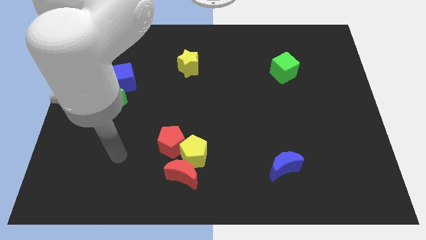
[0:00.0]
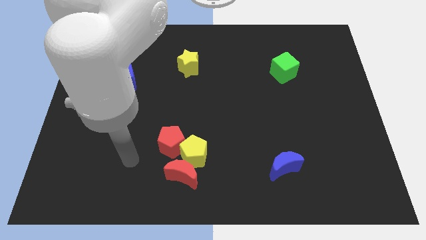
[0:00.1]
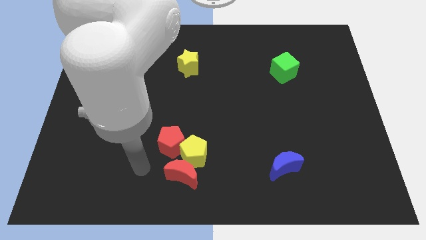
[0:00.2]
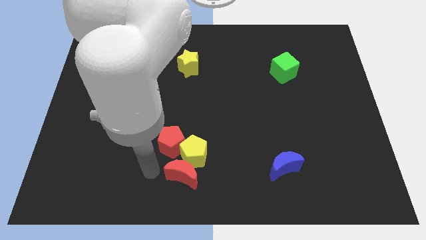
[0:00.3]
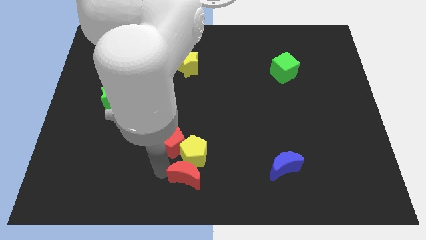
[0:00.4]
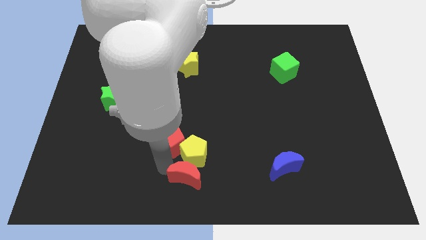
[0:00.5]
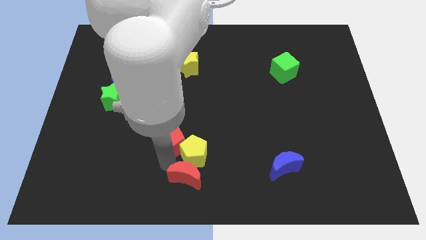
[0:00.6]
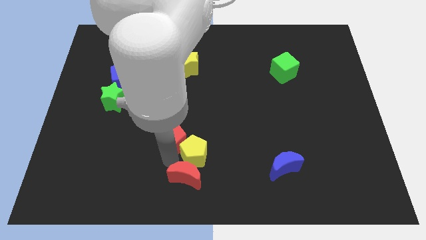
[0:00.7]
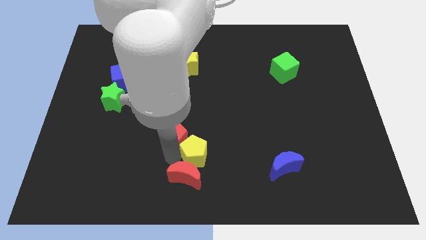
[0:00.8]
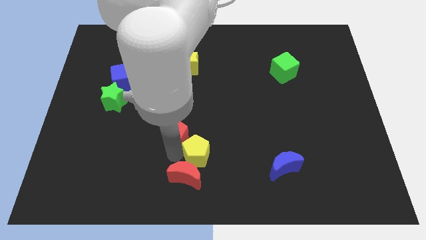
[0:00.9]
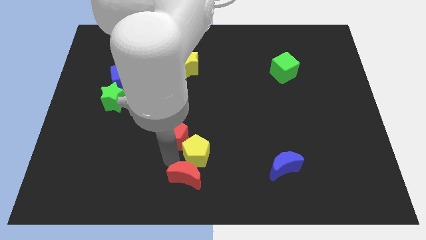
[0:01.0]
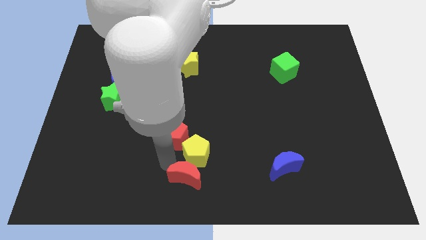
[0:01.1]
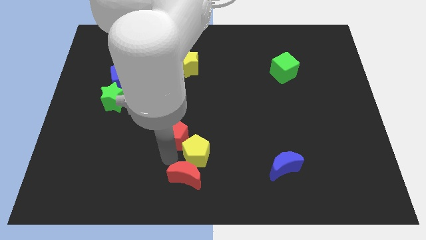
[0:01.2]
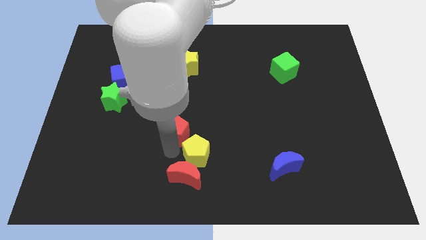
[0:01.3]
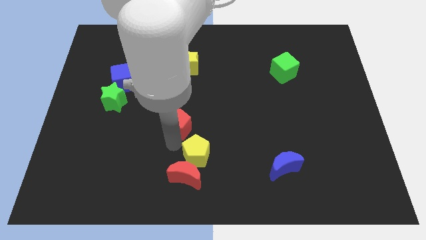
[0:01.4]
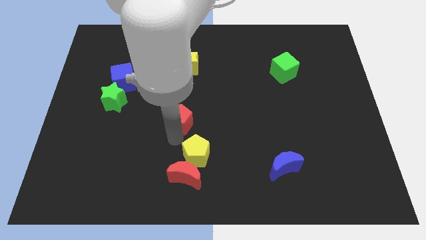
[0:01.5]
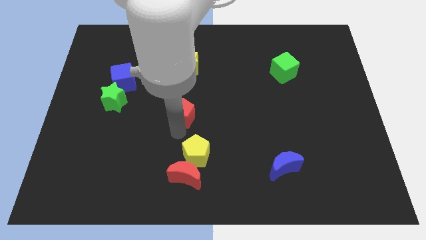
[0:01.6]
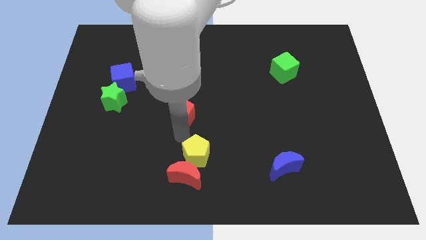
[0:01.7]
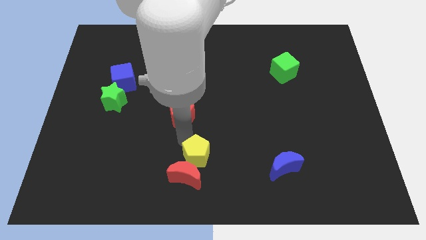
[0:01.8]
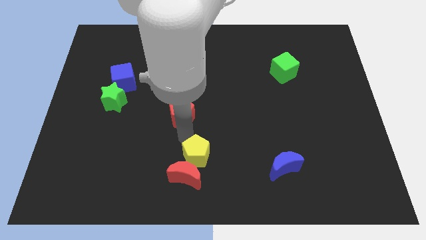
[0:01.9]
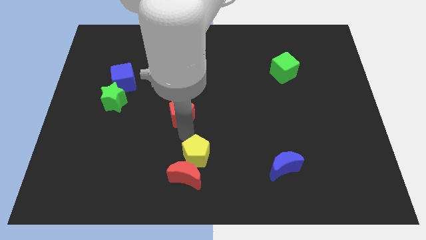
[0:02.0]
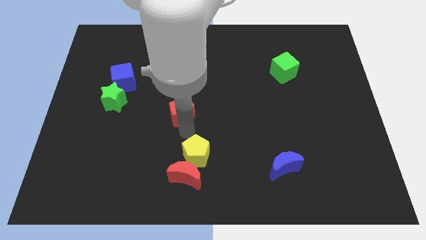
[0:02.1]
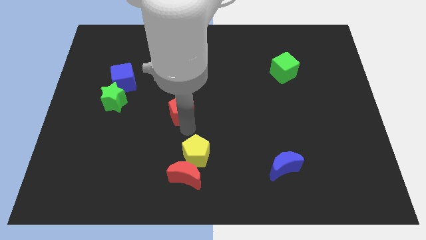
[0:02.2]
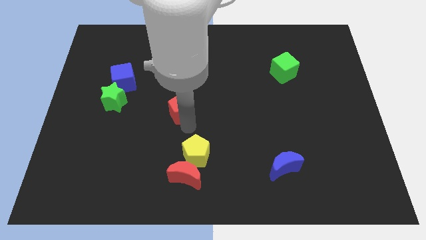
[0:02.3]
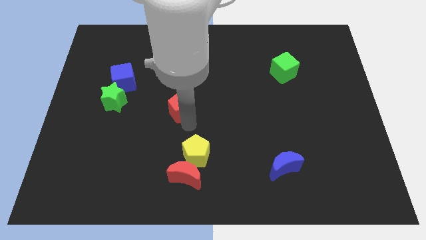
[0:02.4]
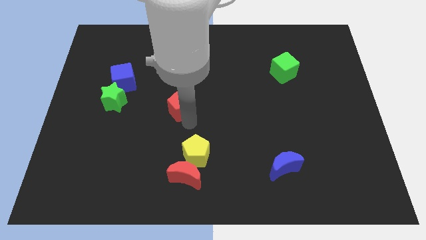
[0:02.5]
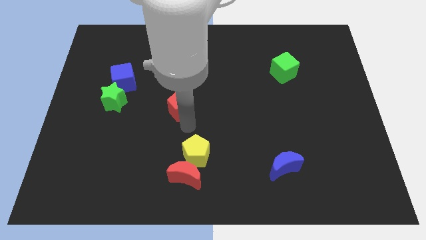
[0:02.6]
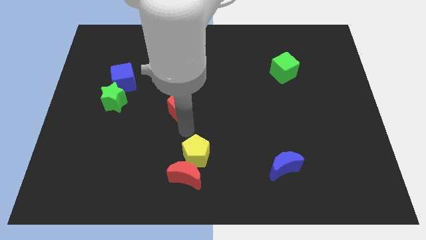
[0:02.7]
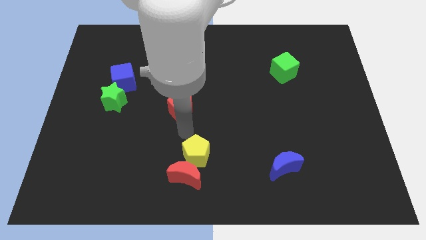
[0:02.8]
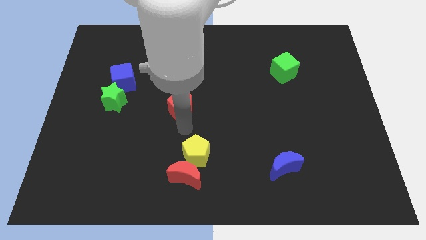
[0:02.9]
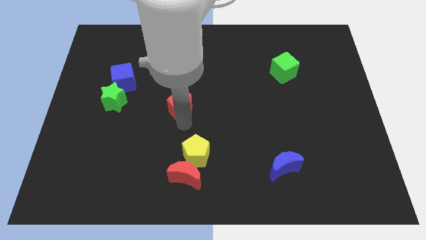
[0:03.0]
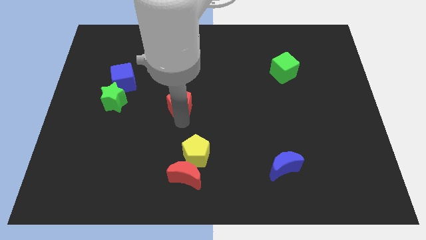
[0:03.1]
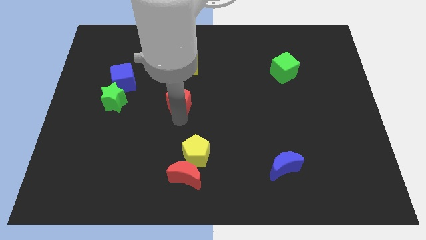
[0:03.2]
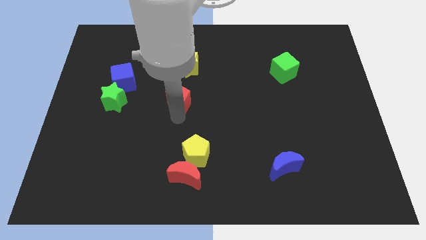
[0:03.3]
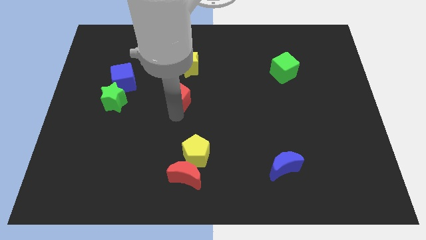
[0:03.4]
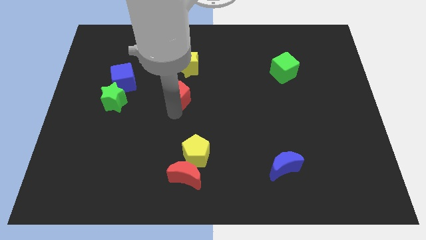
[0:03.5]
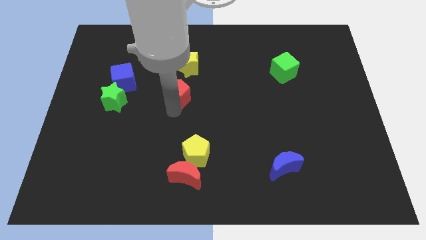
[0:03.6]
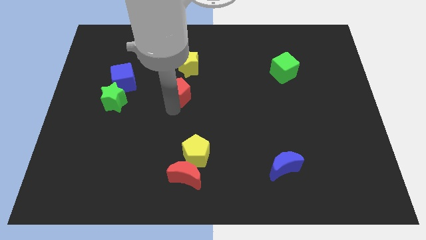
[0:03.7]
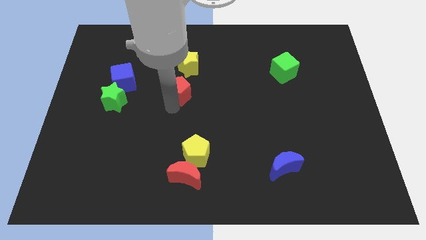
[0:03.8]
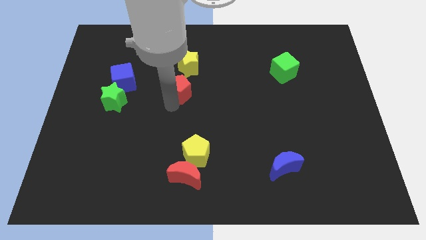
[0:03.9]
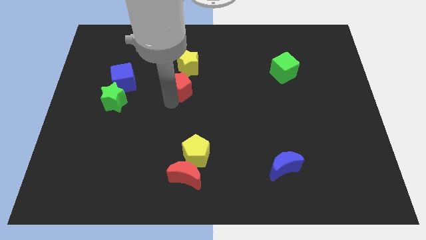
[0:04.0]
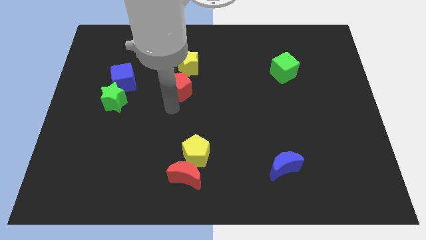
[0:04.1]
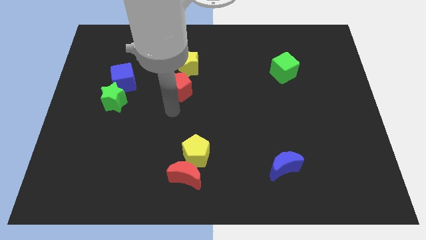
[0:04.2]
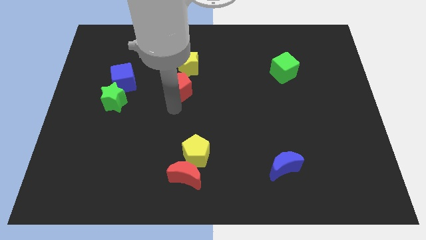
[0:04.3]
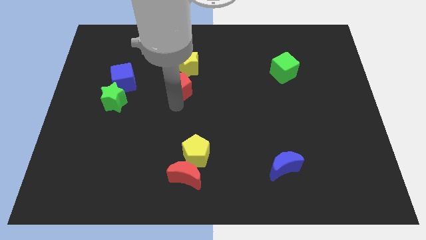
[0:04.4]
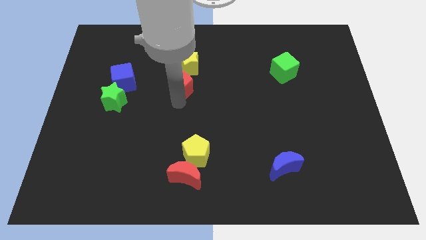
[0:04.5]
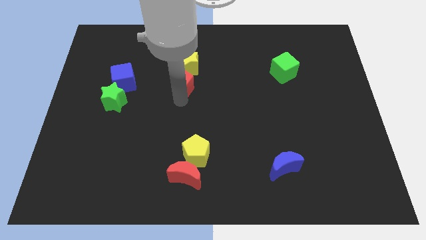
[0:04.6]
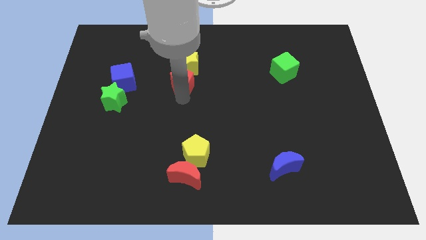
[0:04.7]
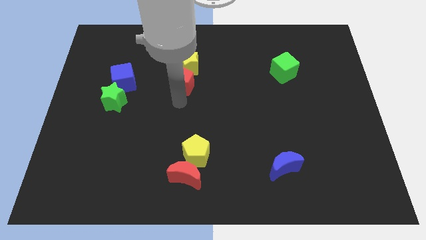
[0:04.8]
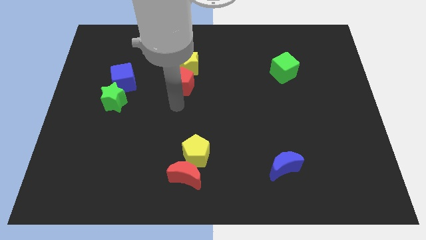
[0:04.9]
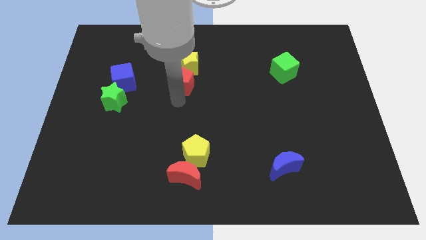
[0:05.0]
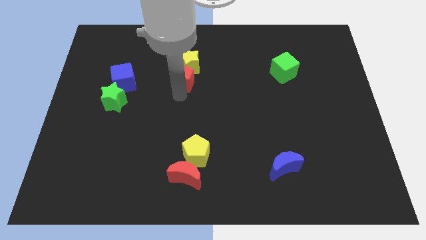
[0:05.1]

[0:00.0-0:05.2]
put the red pentagon to the yellow star

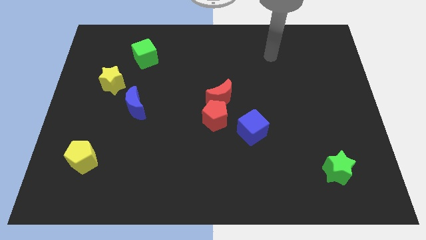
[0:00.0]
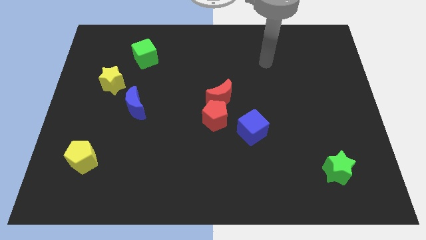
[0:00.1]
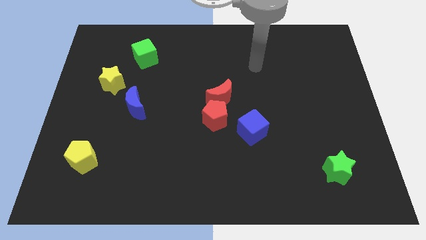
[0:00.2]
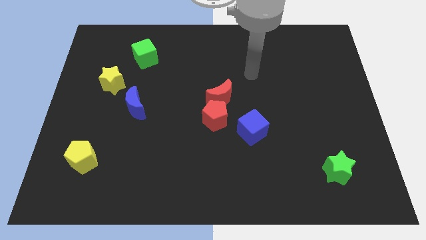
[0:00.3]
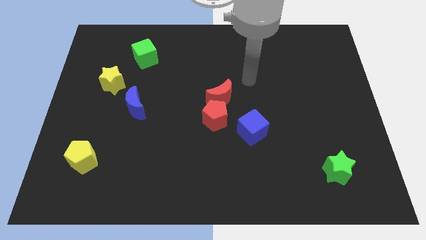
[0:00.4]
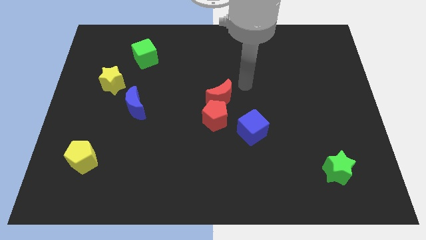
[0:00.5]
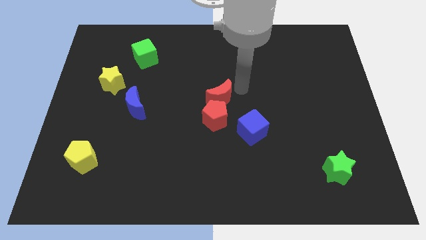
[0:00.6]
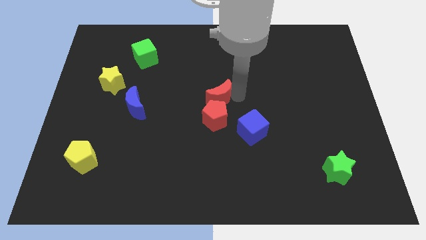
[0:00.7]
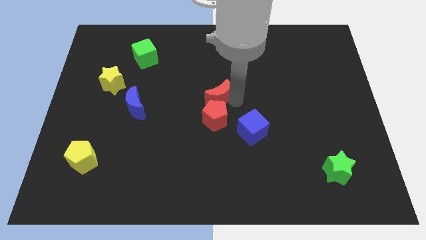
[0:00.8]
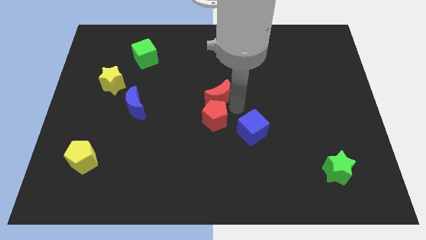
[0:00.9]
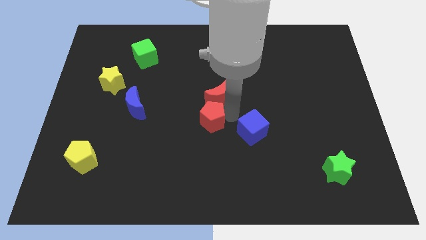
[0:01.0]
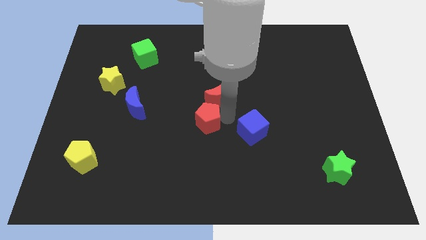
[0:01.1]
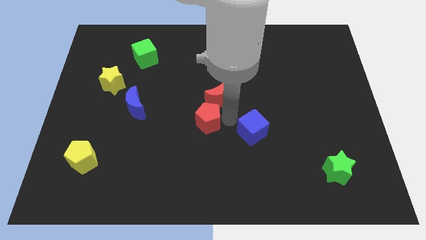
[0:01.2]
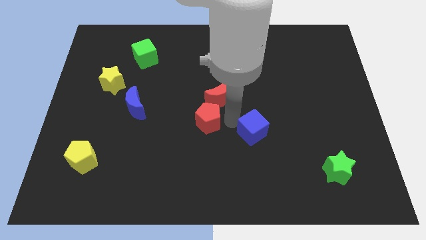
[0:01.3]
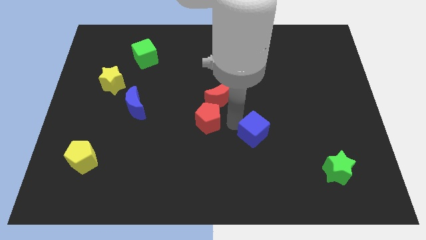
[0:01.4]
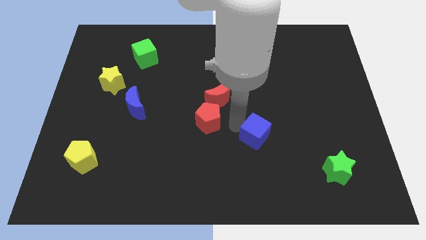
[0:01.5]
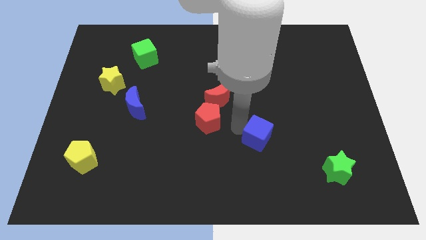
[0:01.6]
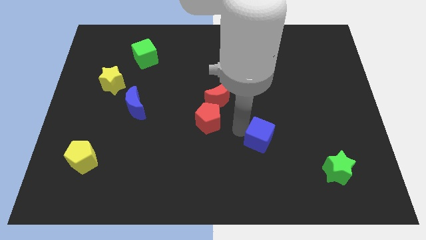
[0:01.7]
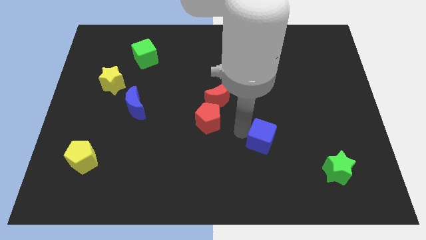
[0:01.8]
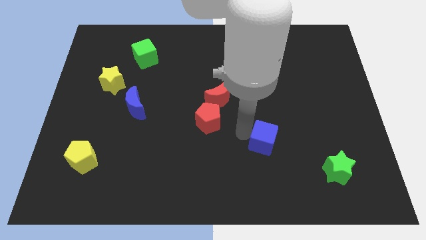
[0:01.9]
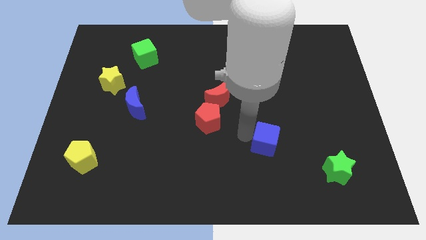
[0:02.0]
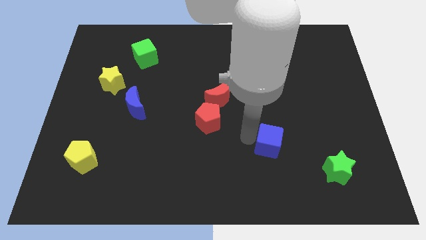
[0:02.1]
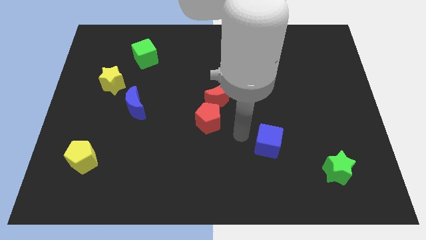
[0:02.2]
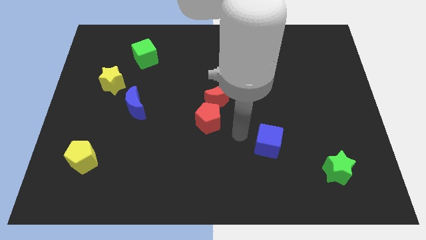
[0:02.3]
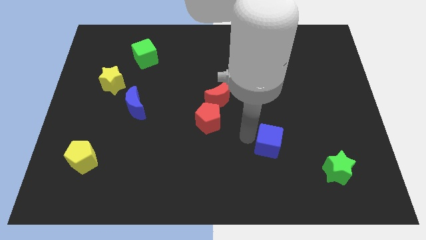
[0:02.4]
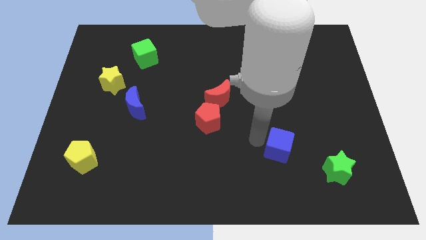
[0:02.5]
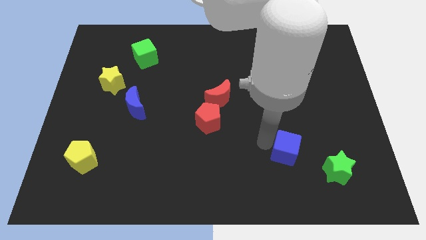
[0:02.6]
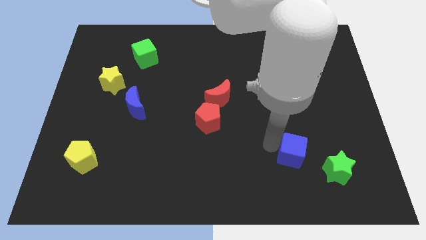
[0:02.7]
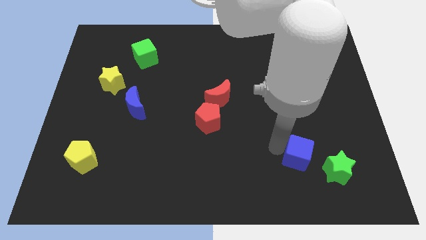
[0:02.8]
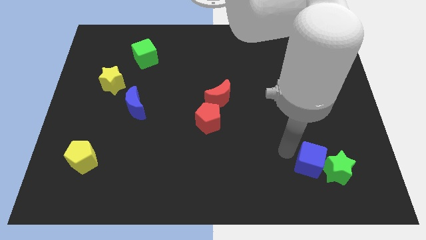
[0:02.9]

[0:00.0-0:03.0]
slide the blue cube close to the green star
